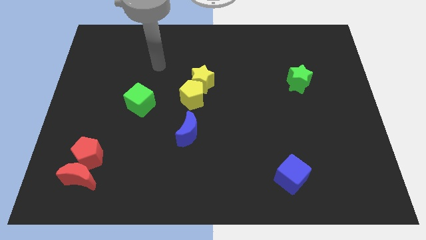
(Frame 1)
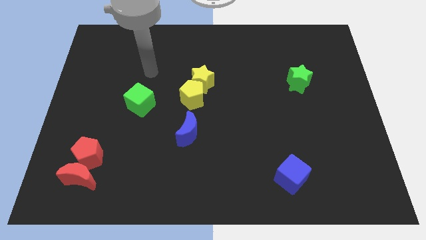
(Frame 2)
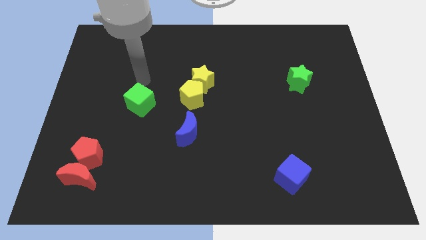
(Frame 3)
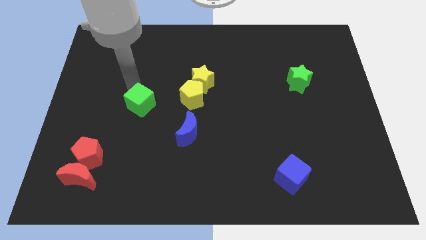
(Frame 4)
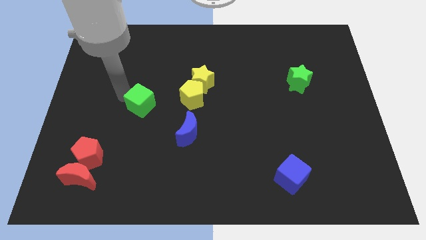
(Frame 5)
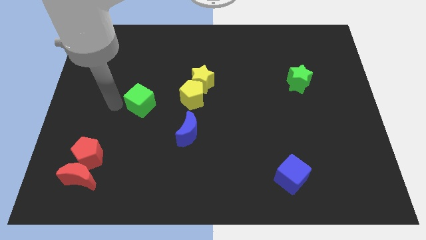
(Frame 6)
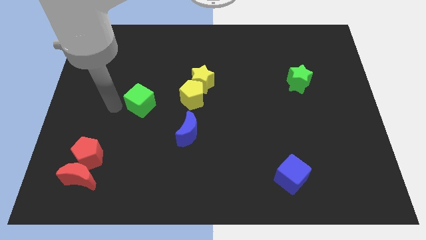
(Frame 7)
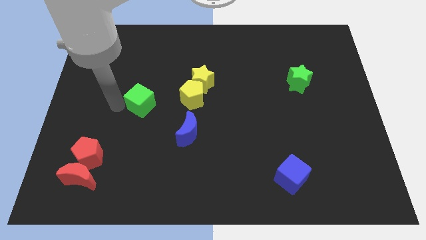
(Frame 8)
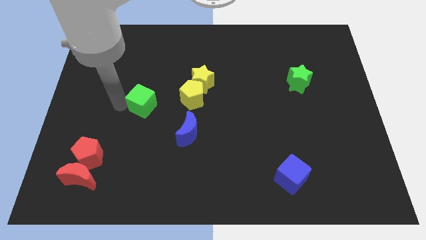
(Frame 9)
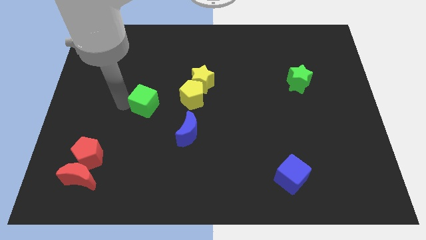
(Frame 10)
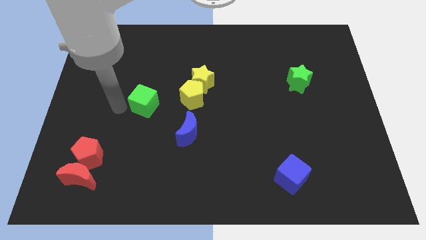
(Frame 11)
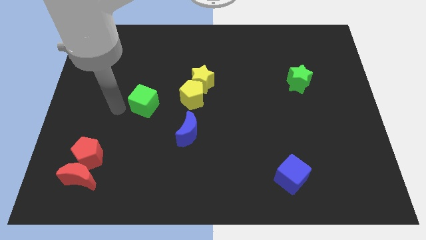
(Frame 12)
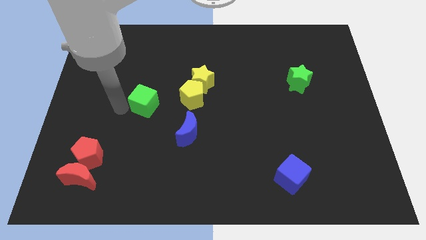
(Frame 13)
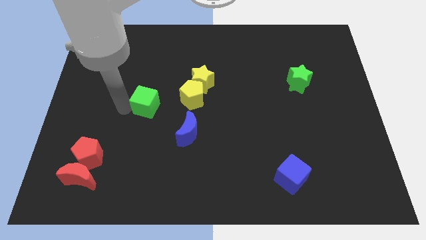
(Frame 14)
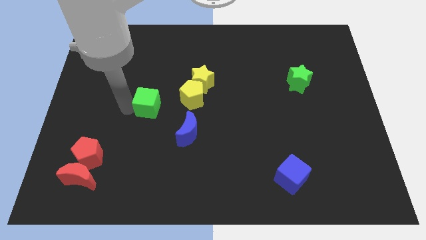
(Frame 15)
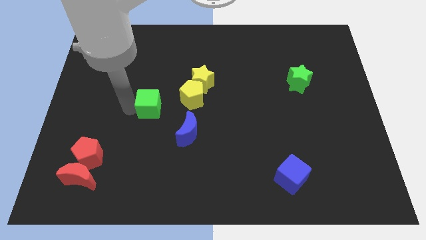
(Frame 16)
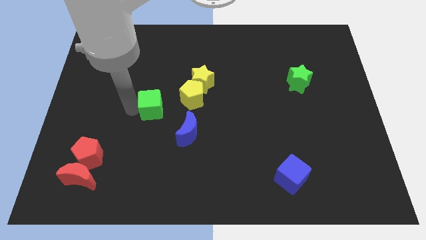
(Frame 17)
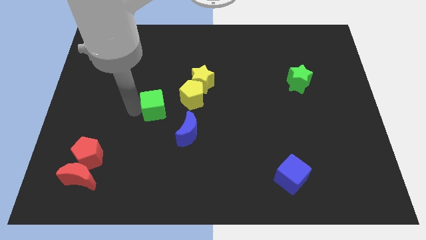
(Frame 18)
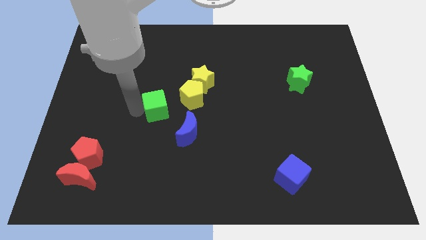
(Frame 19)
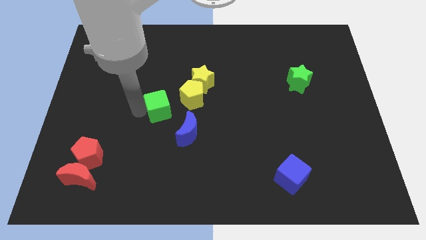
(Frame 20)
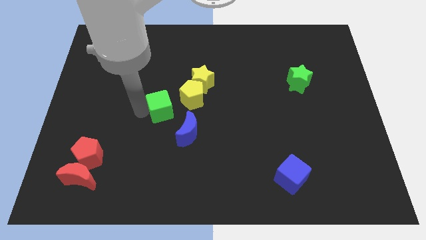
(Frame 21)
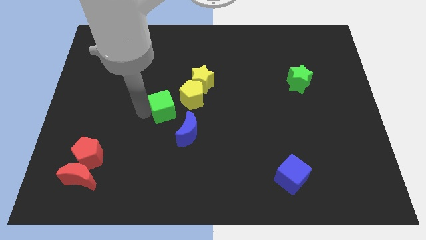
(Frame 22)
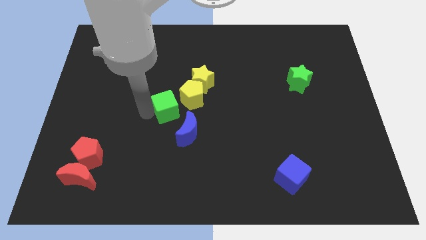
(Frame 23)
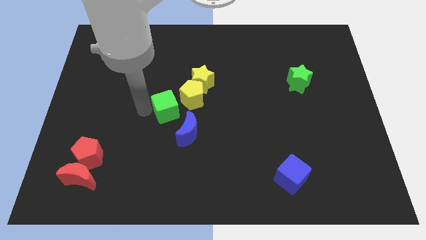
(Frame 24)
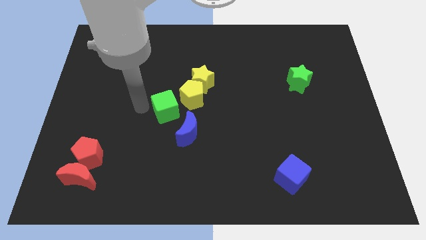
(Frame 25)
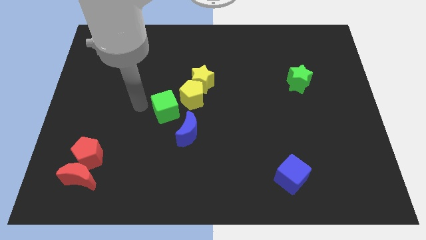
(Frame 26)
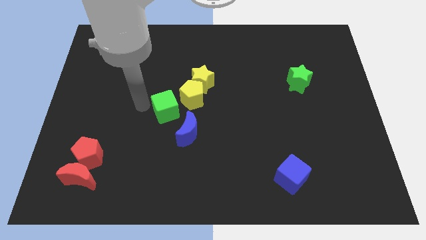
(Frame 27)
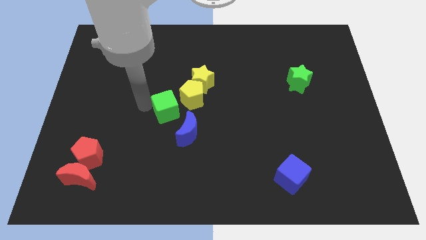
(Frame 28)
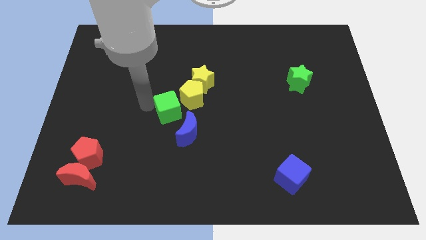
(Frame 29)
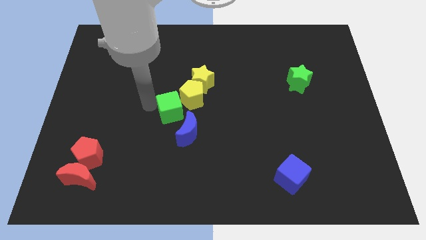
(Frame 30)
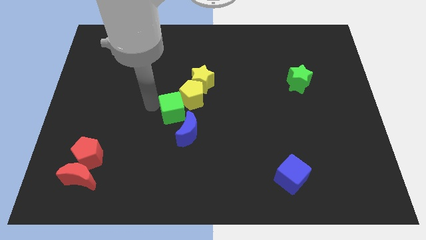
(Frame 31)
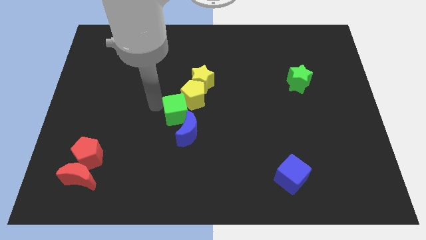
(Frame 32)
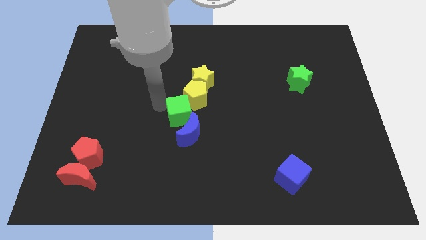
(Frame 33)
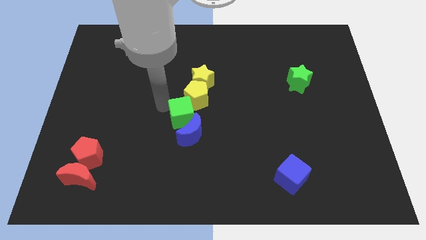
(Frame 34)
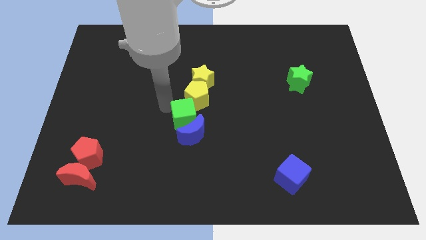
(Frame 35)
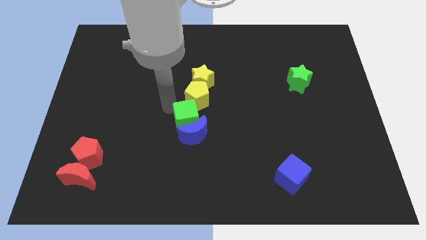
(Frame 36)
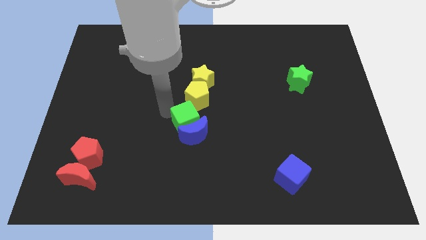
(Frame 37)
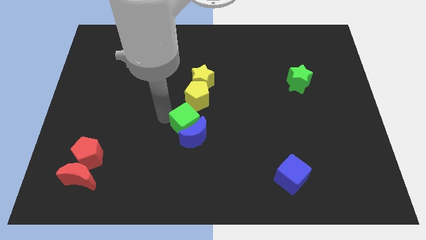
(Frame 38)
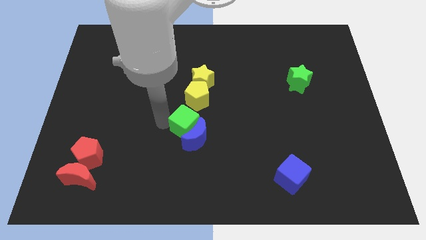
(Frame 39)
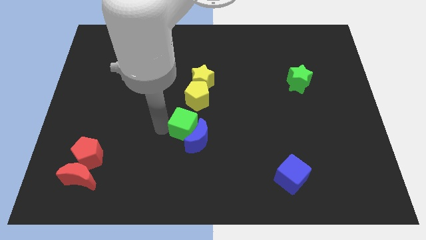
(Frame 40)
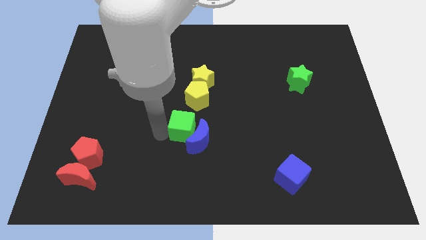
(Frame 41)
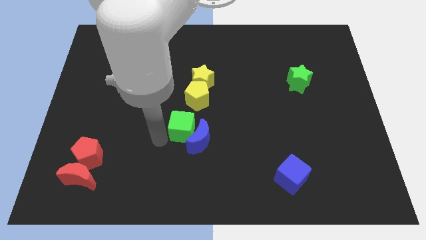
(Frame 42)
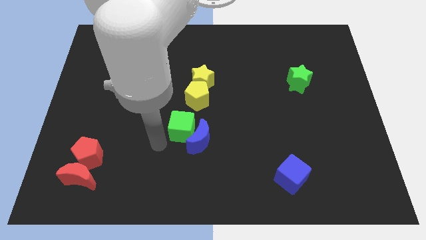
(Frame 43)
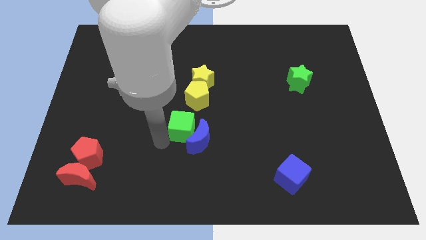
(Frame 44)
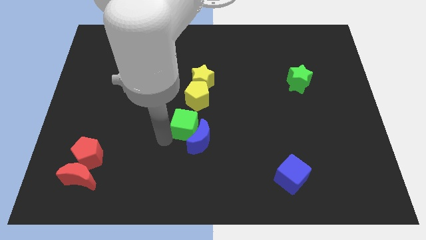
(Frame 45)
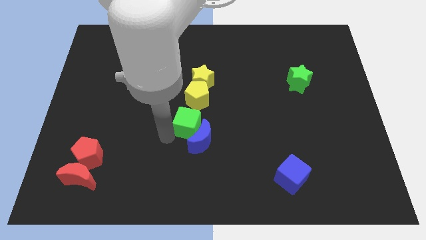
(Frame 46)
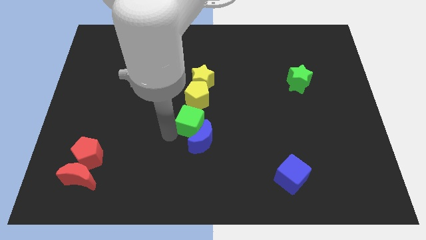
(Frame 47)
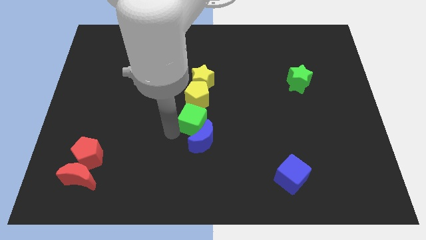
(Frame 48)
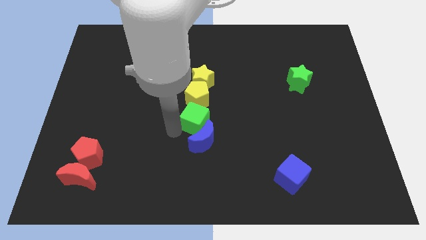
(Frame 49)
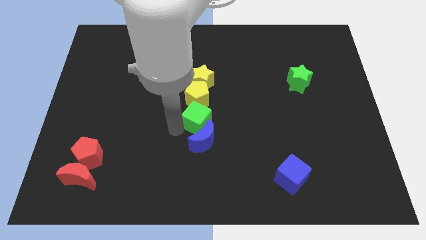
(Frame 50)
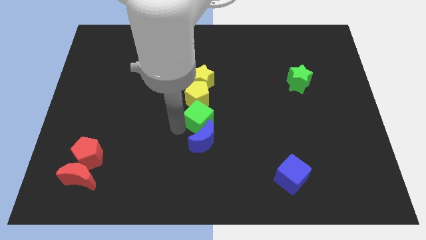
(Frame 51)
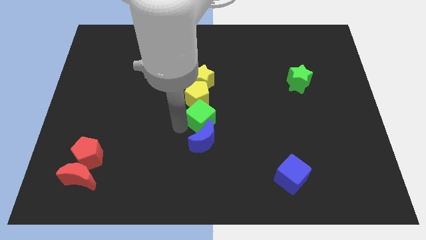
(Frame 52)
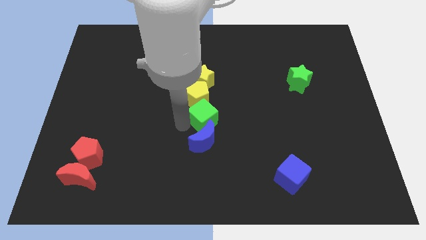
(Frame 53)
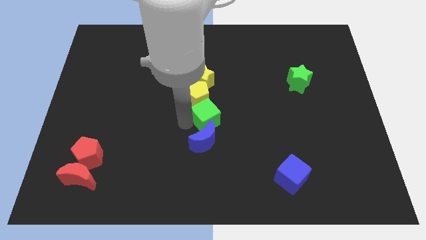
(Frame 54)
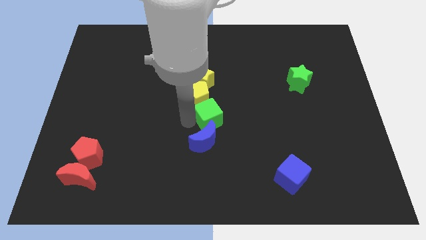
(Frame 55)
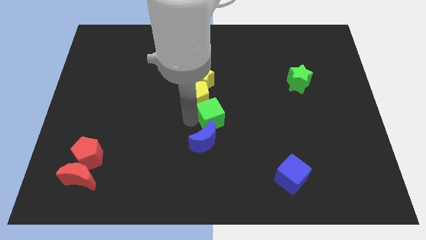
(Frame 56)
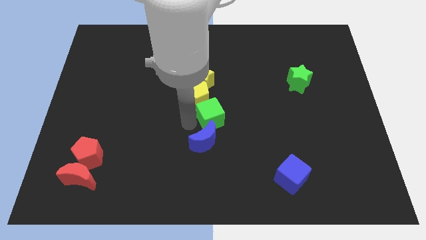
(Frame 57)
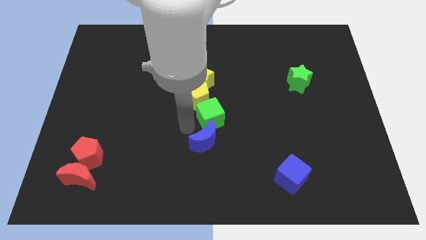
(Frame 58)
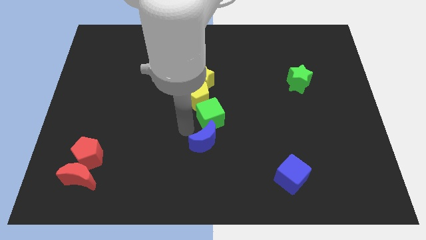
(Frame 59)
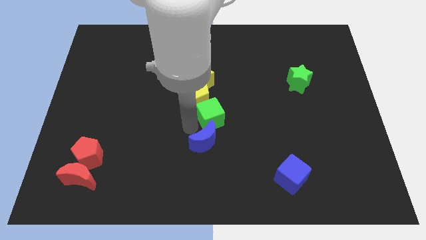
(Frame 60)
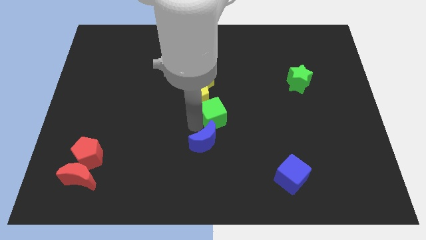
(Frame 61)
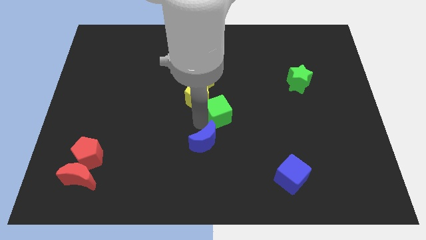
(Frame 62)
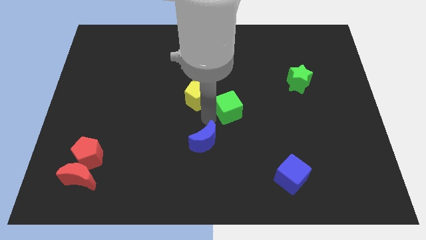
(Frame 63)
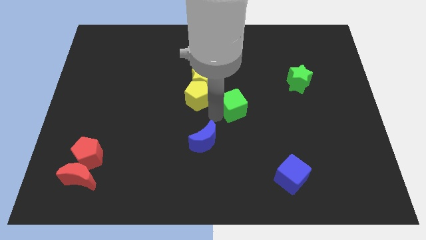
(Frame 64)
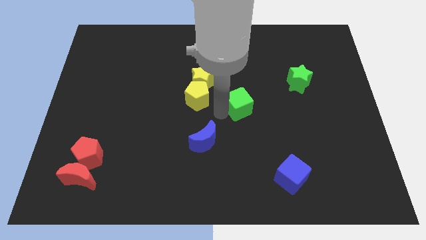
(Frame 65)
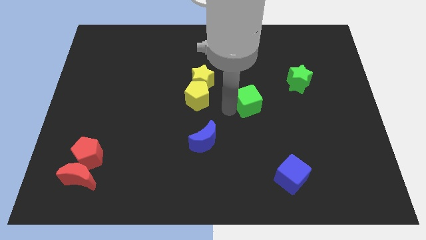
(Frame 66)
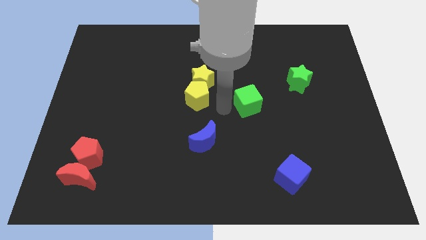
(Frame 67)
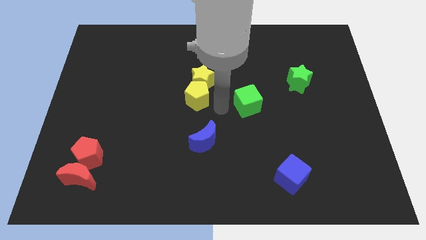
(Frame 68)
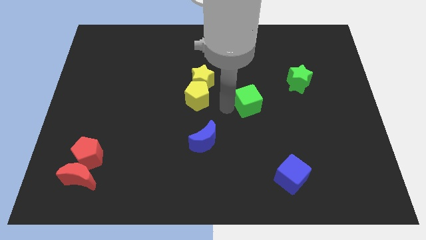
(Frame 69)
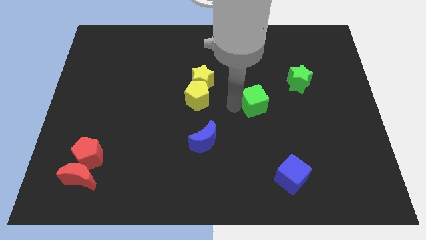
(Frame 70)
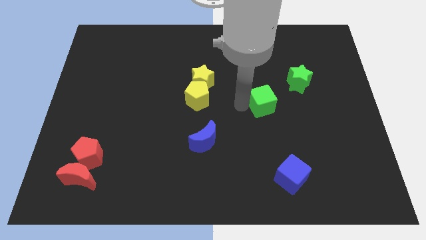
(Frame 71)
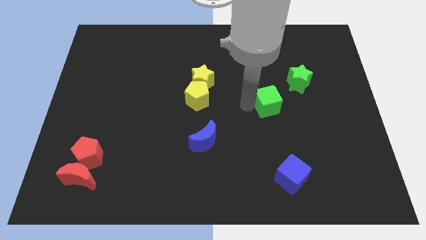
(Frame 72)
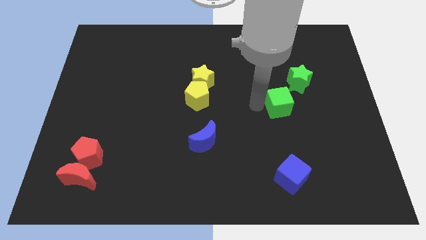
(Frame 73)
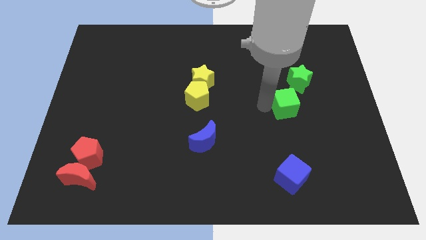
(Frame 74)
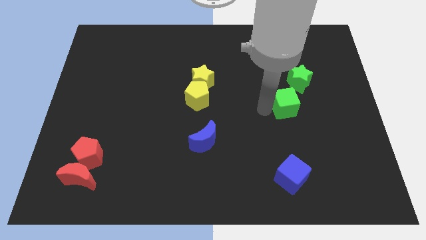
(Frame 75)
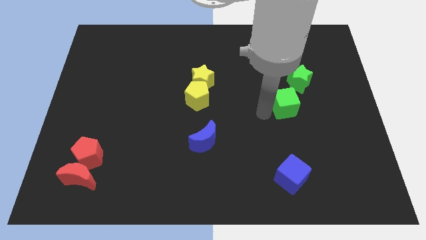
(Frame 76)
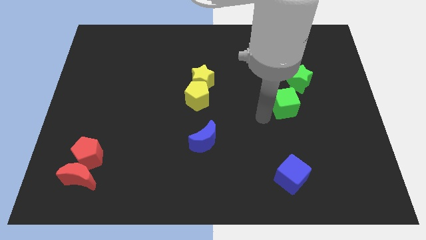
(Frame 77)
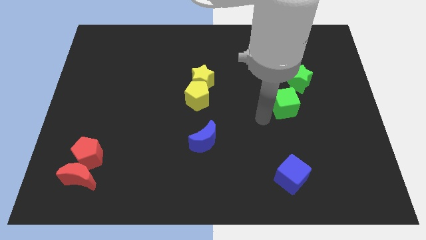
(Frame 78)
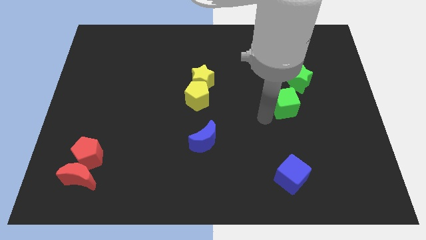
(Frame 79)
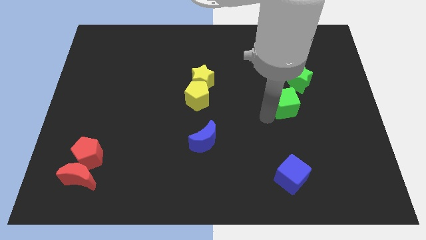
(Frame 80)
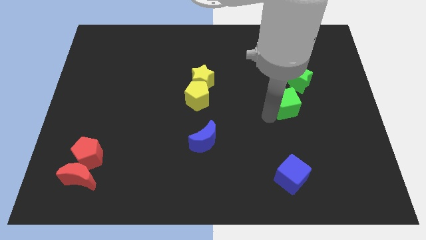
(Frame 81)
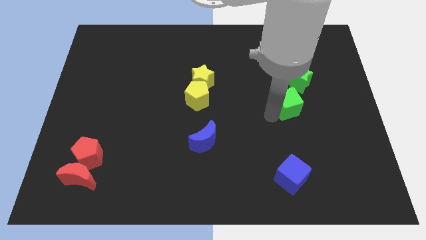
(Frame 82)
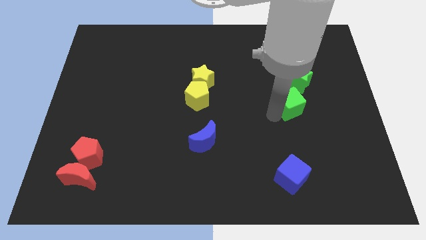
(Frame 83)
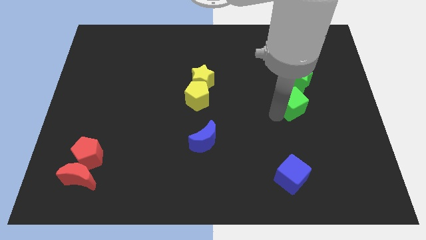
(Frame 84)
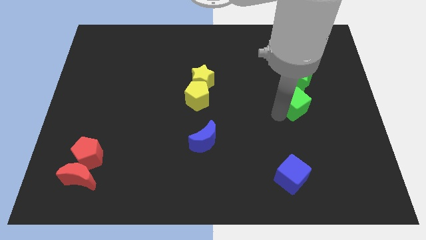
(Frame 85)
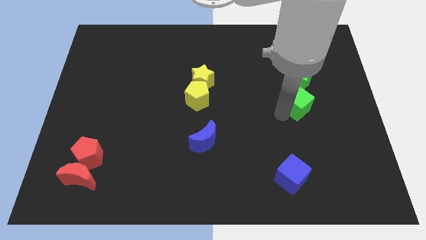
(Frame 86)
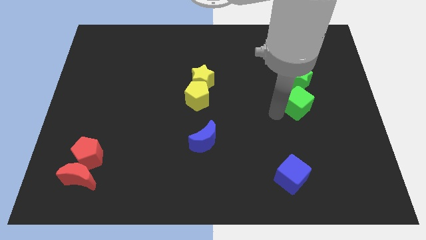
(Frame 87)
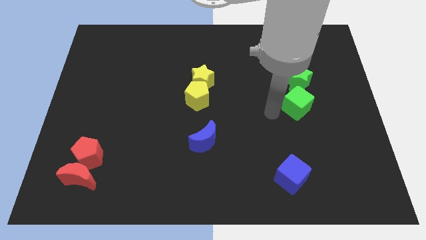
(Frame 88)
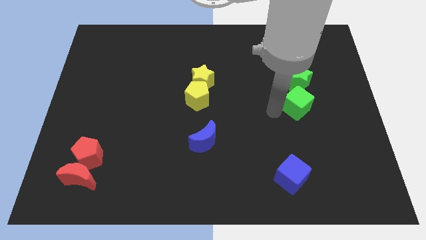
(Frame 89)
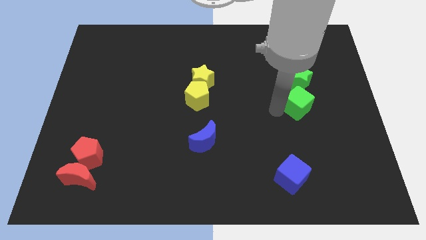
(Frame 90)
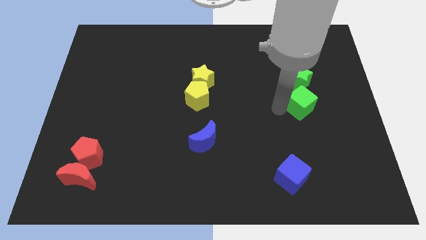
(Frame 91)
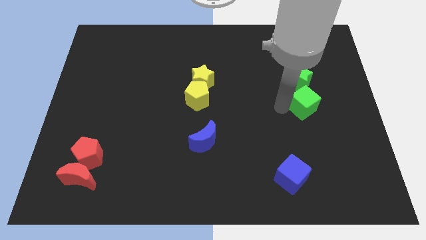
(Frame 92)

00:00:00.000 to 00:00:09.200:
put the green cube to the bottom right side of the green star
